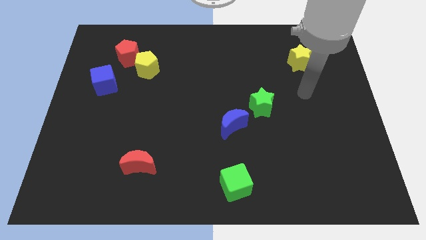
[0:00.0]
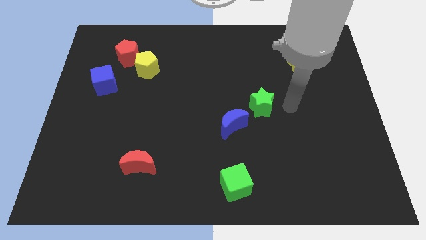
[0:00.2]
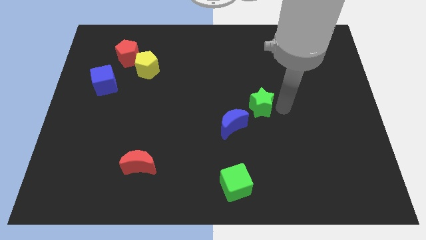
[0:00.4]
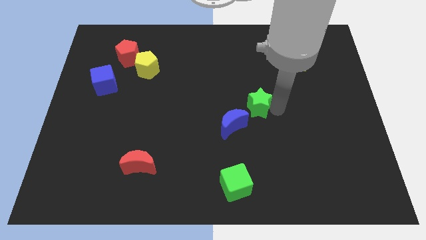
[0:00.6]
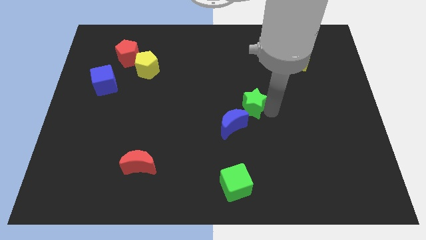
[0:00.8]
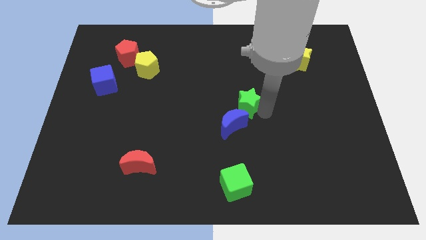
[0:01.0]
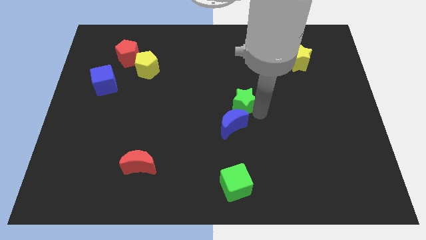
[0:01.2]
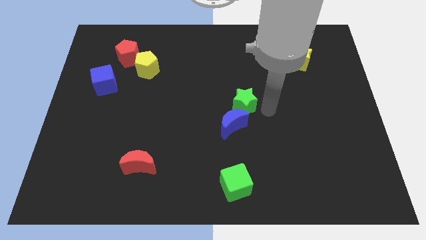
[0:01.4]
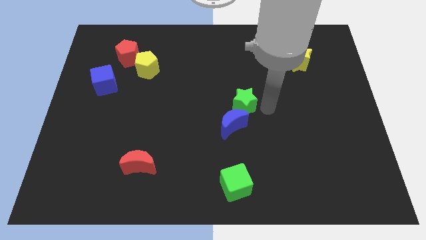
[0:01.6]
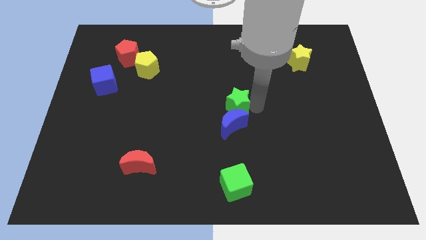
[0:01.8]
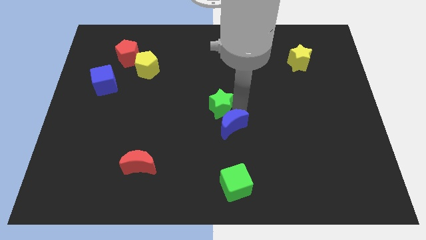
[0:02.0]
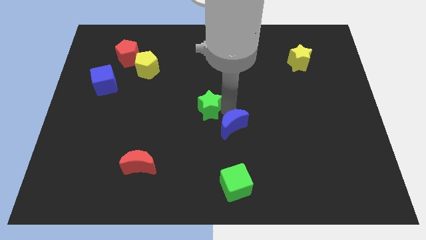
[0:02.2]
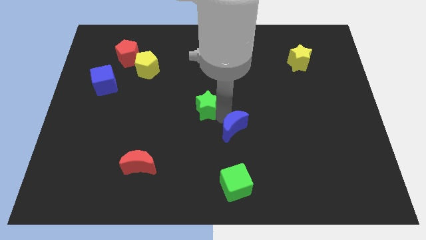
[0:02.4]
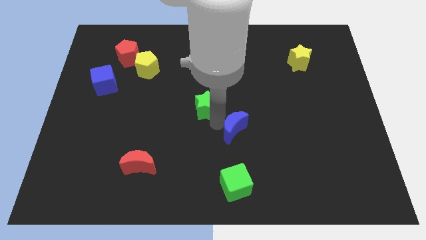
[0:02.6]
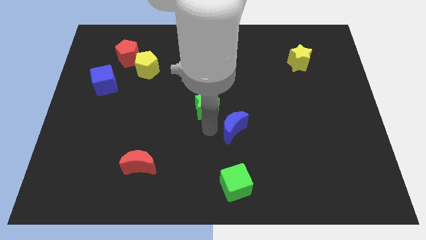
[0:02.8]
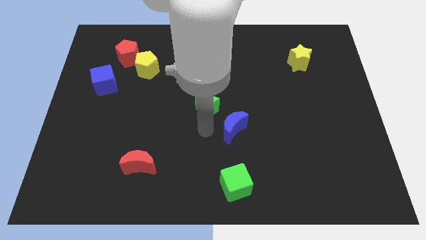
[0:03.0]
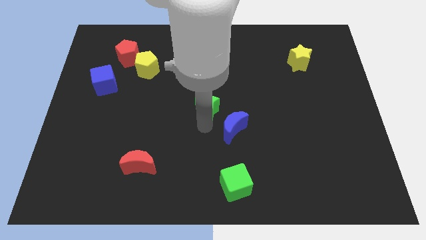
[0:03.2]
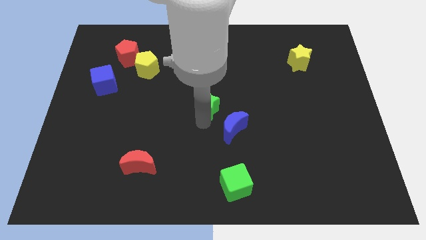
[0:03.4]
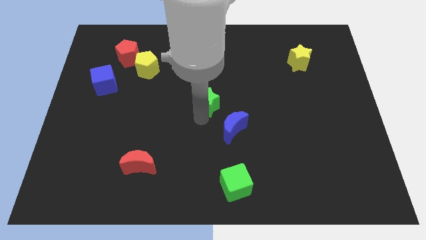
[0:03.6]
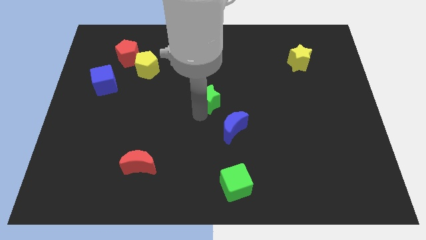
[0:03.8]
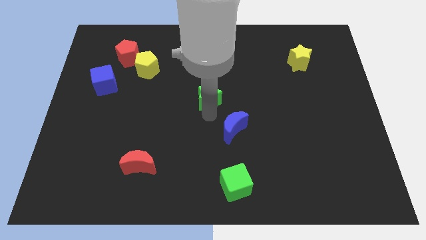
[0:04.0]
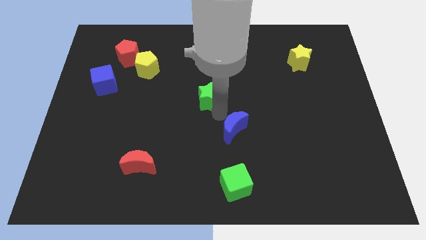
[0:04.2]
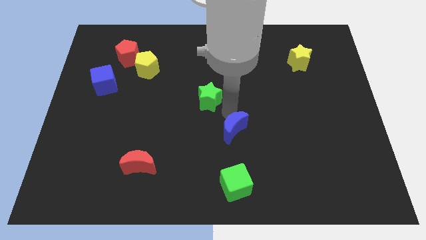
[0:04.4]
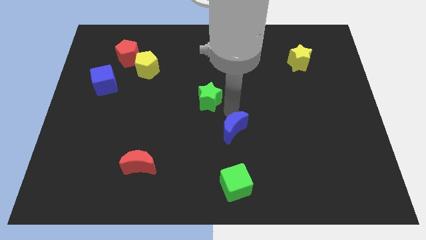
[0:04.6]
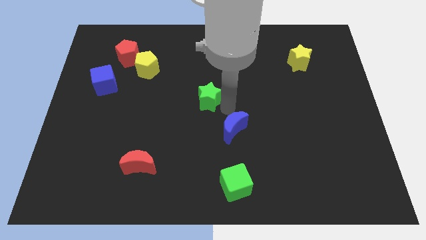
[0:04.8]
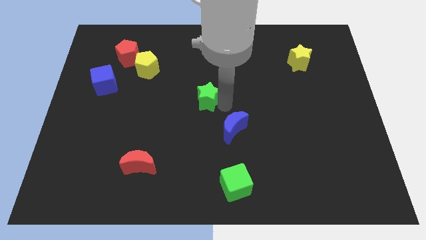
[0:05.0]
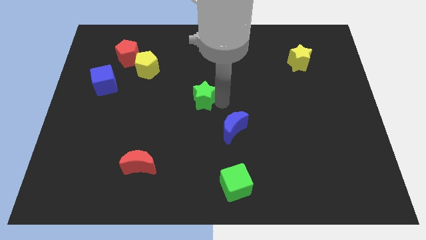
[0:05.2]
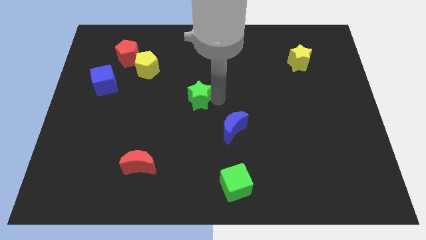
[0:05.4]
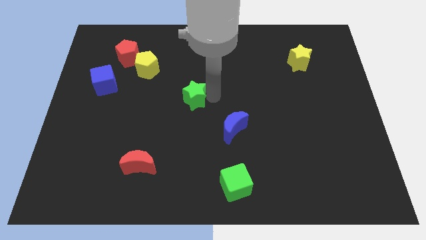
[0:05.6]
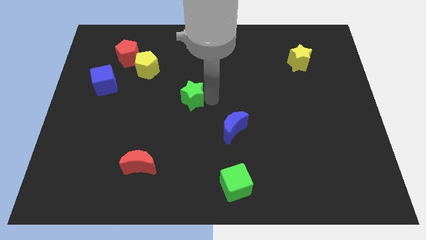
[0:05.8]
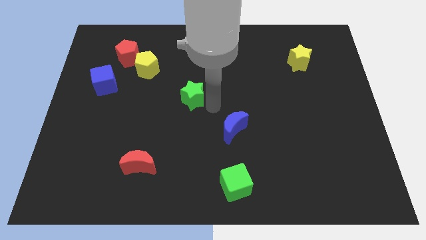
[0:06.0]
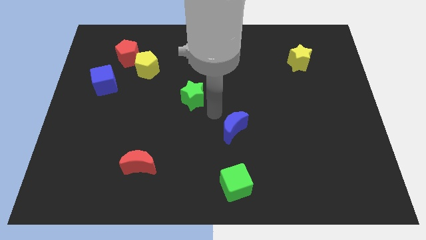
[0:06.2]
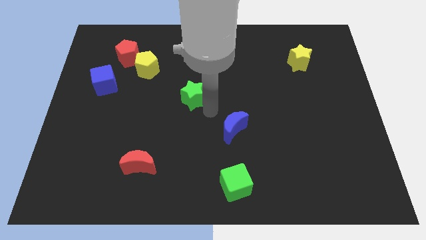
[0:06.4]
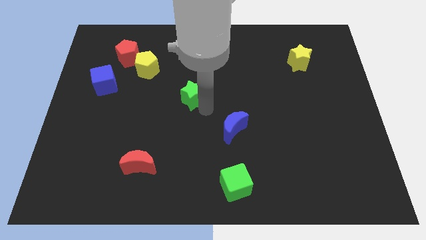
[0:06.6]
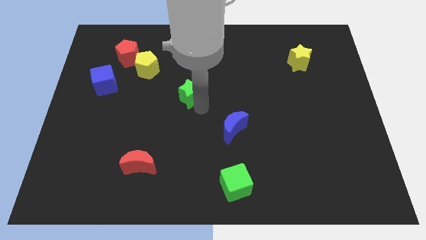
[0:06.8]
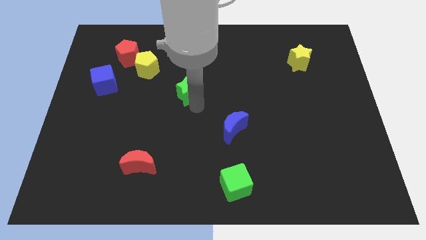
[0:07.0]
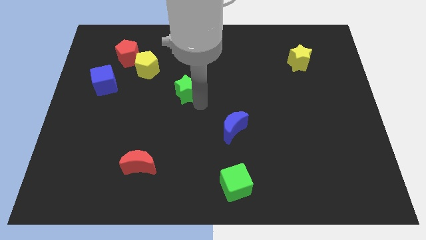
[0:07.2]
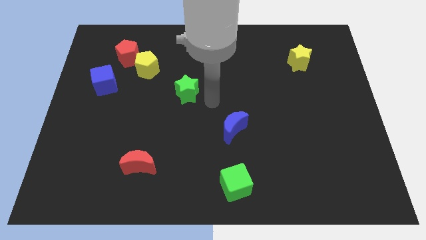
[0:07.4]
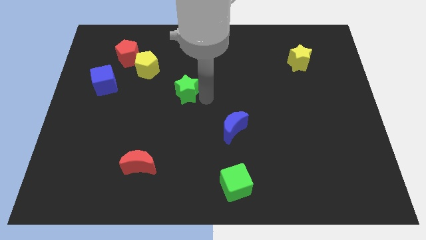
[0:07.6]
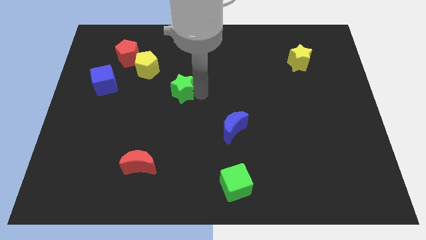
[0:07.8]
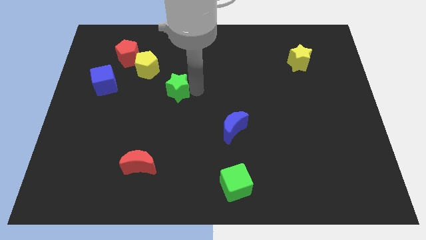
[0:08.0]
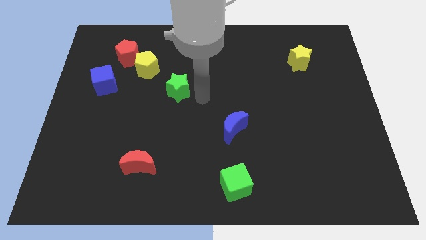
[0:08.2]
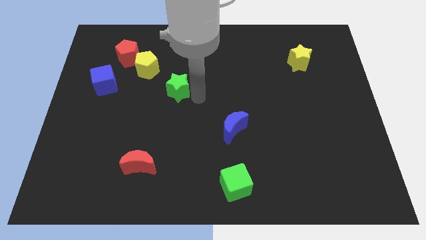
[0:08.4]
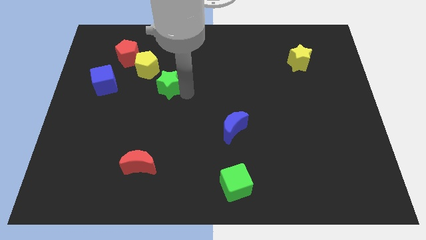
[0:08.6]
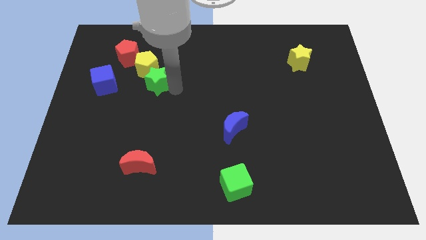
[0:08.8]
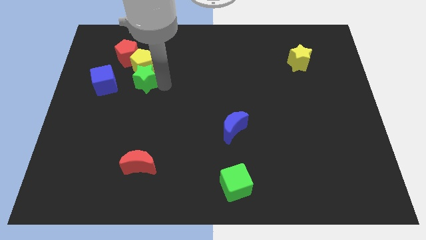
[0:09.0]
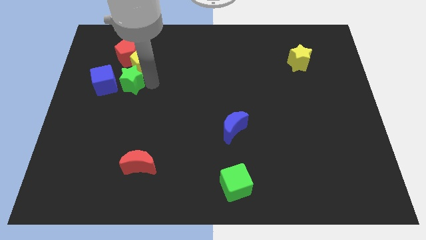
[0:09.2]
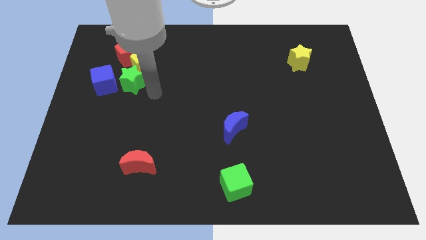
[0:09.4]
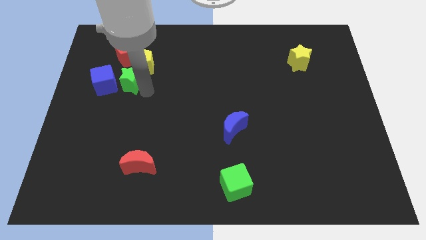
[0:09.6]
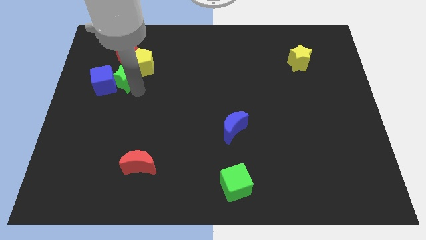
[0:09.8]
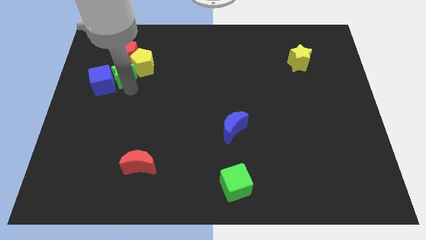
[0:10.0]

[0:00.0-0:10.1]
push the green star to the left of the yellow pentagon

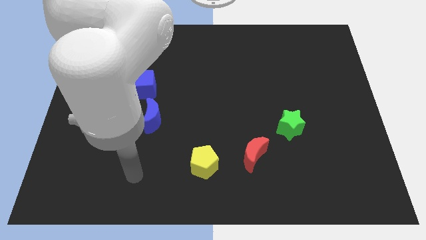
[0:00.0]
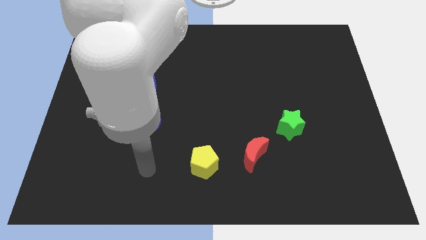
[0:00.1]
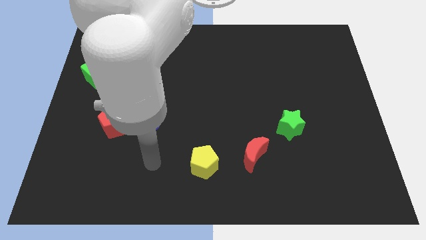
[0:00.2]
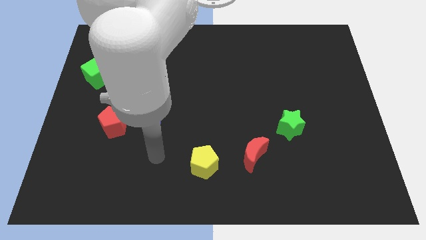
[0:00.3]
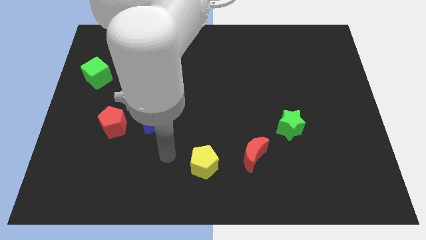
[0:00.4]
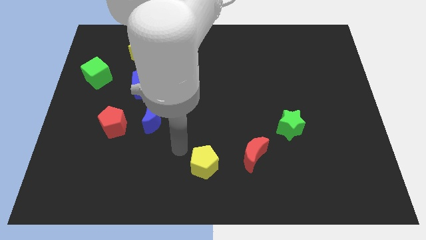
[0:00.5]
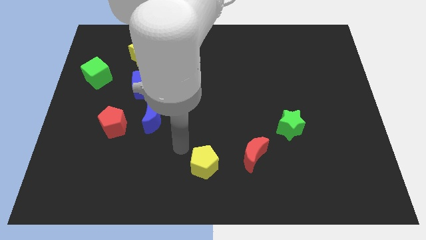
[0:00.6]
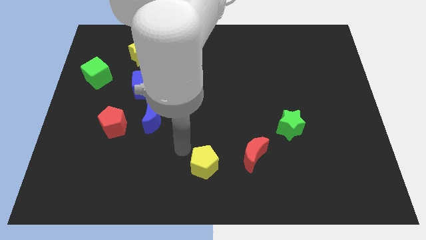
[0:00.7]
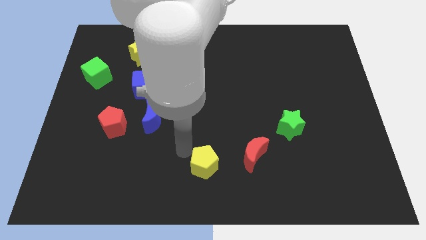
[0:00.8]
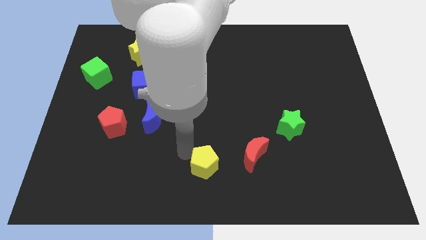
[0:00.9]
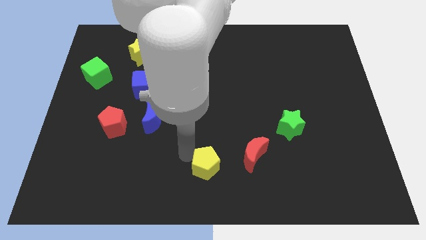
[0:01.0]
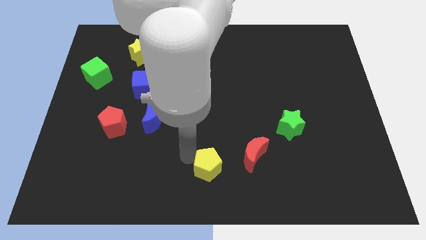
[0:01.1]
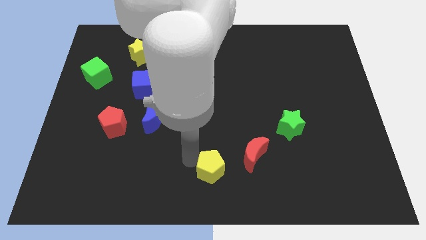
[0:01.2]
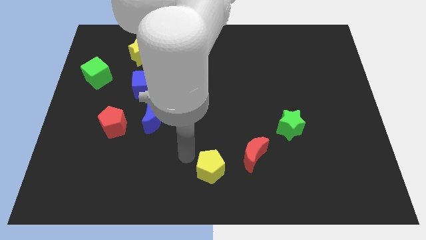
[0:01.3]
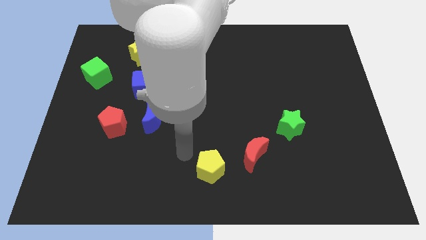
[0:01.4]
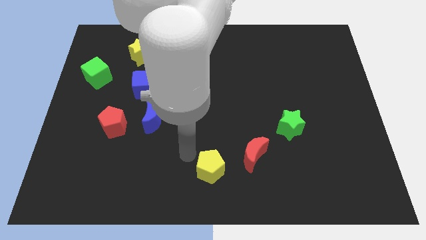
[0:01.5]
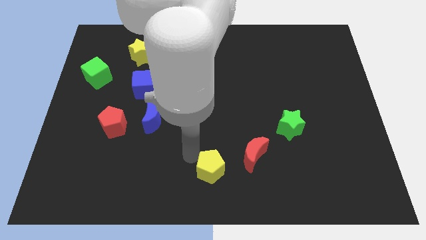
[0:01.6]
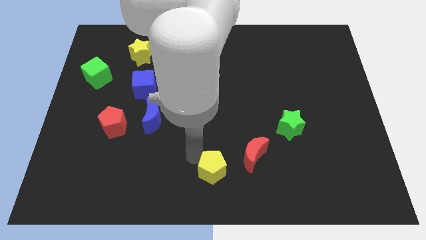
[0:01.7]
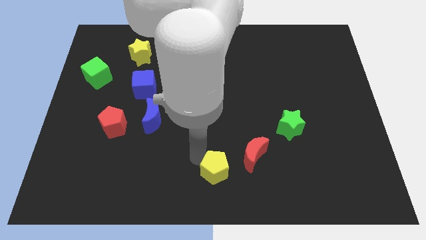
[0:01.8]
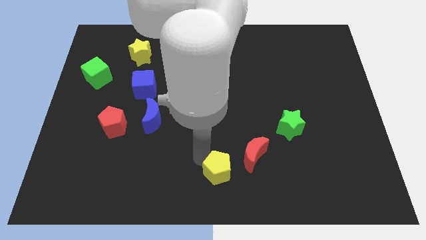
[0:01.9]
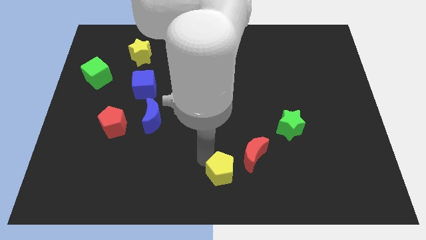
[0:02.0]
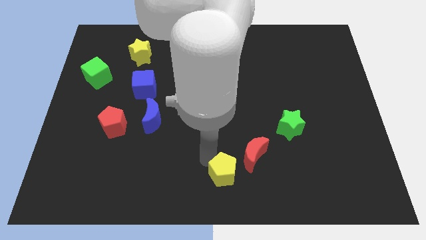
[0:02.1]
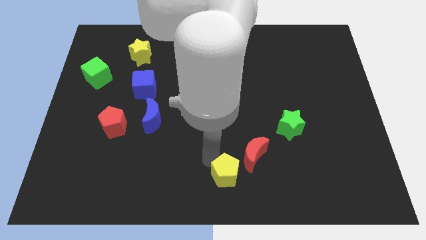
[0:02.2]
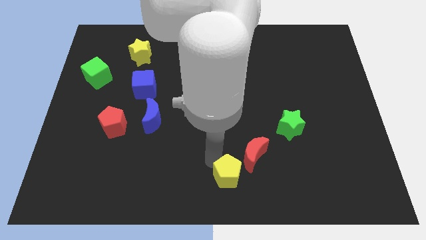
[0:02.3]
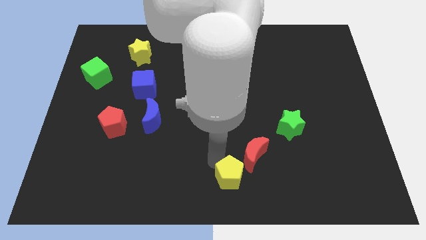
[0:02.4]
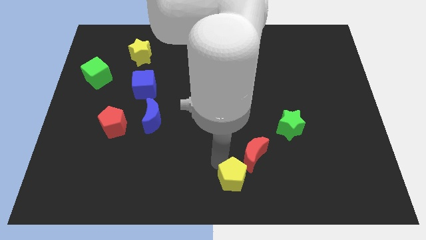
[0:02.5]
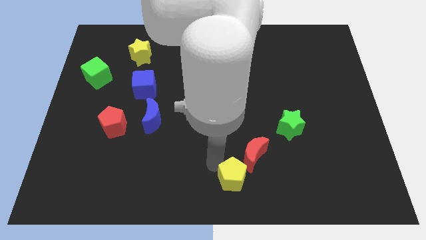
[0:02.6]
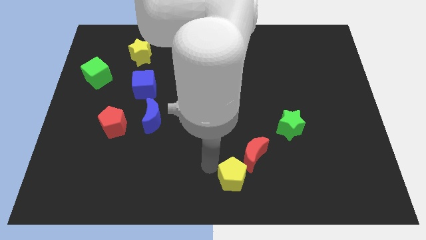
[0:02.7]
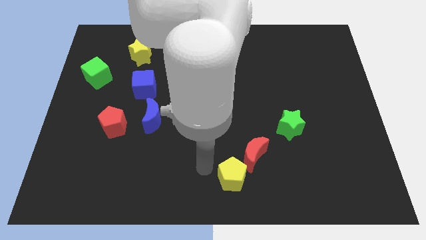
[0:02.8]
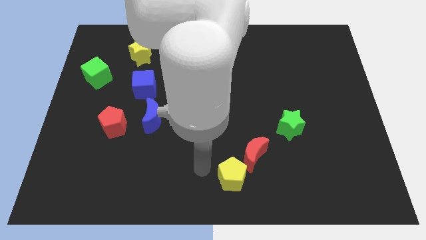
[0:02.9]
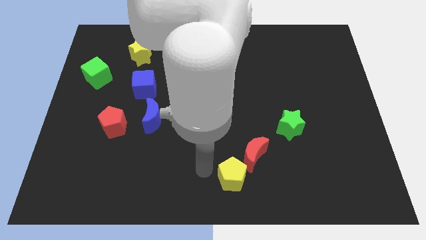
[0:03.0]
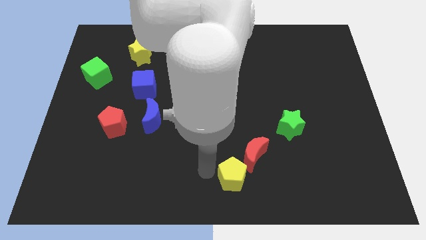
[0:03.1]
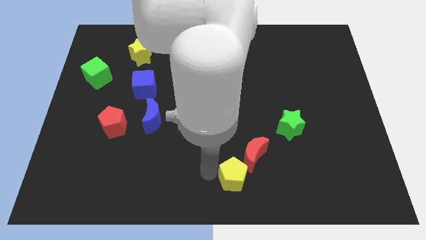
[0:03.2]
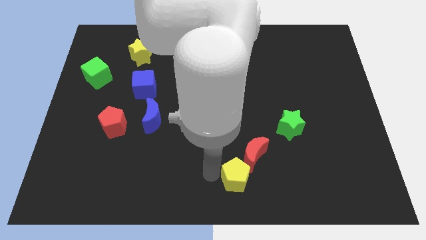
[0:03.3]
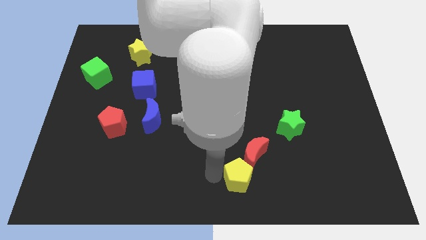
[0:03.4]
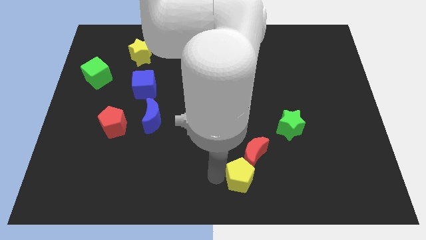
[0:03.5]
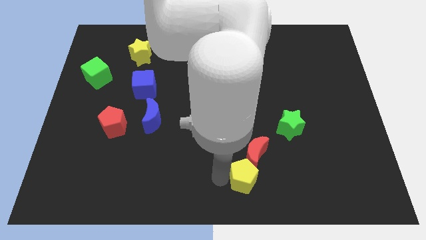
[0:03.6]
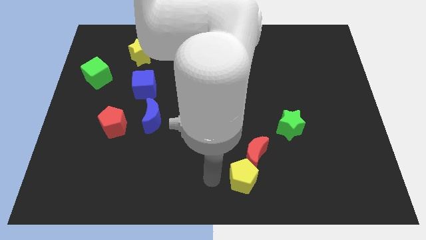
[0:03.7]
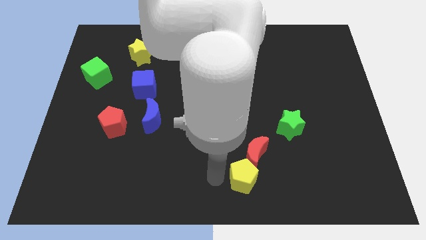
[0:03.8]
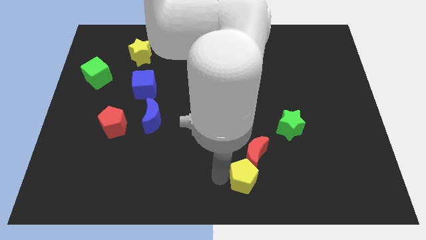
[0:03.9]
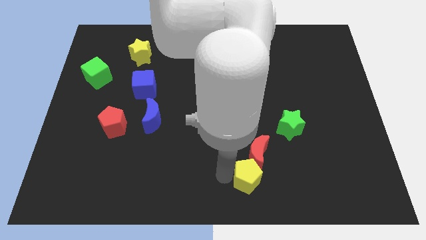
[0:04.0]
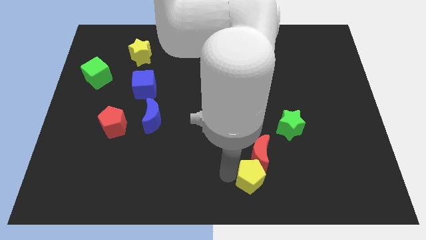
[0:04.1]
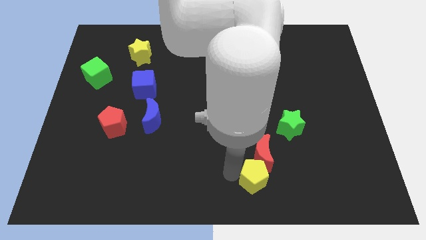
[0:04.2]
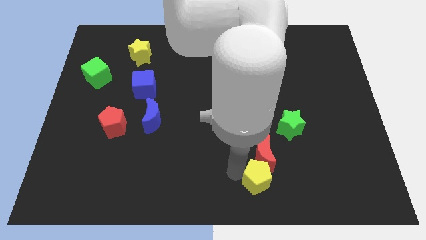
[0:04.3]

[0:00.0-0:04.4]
put the yellow pentagon to the bottom right side of the red moon
